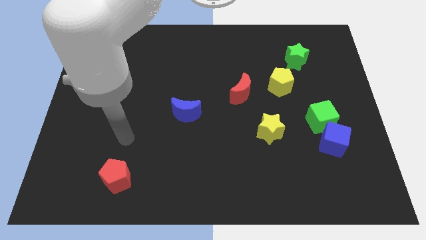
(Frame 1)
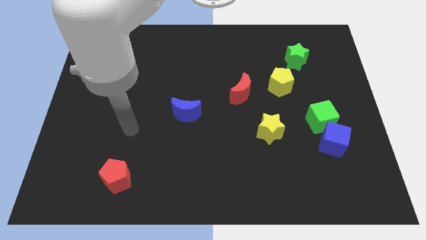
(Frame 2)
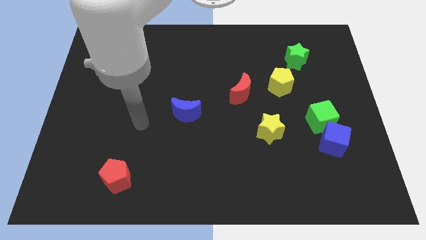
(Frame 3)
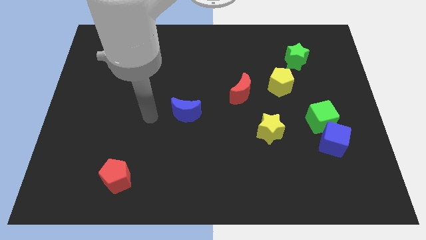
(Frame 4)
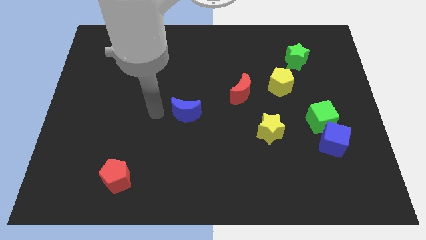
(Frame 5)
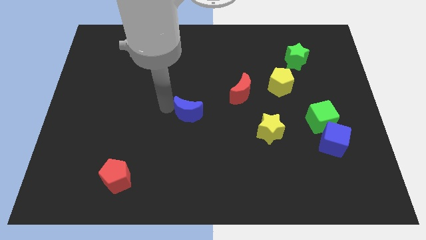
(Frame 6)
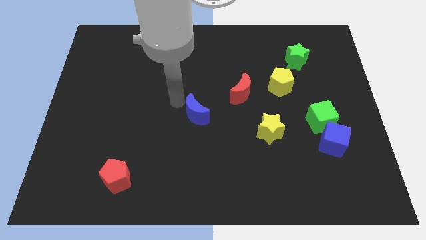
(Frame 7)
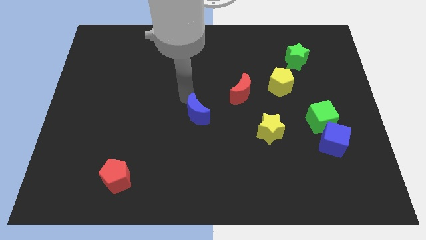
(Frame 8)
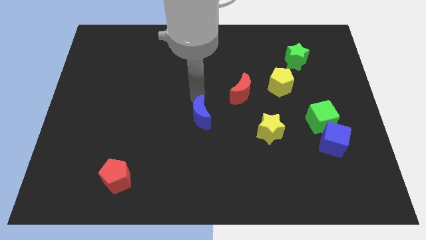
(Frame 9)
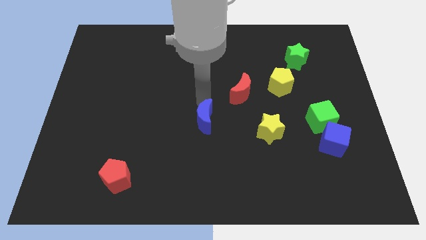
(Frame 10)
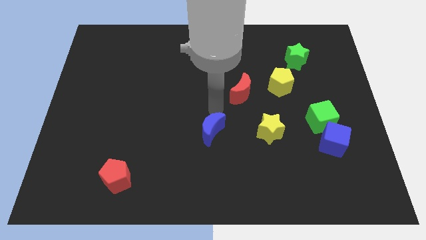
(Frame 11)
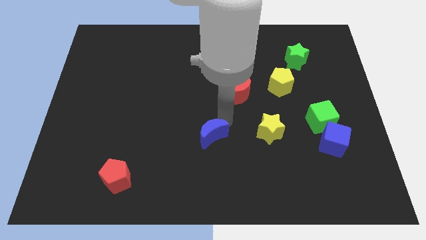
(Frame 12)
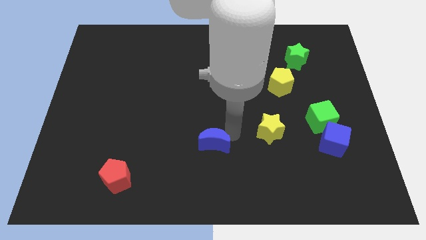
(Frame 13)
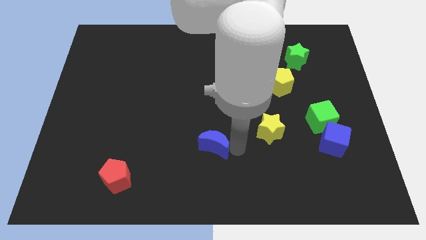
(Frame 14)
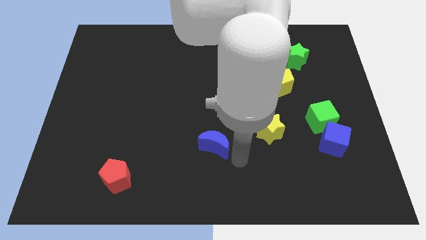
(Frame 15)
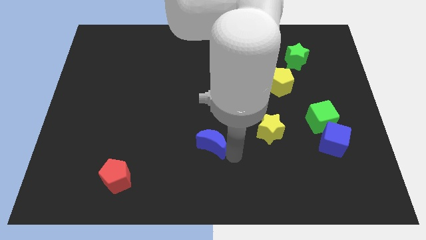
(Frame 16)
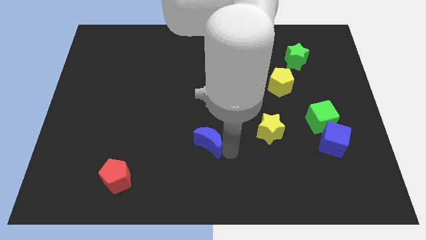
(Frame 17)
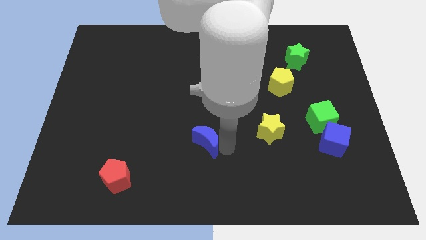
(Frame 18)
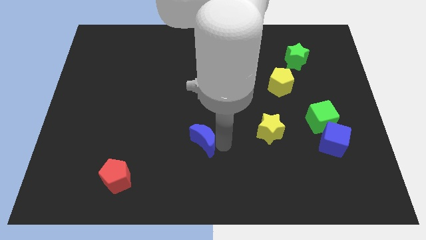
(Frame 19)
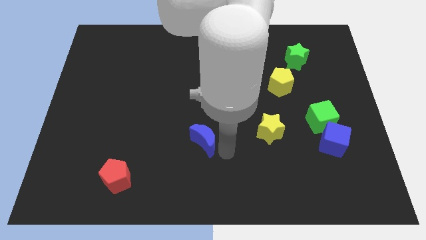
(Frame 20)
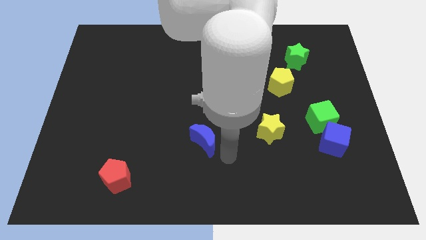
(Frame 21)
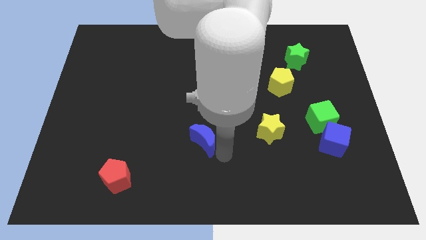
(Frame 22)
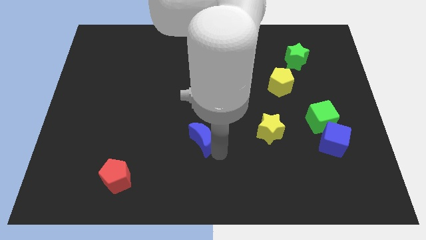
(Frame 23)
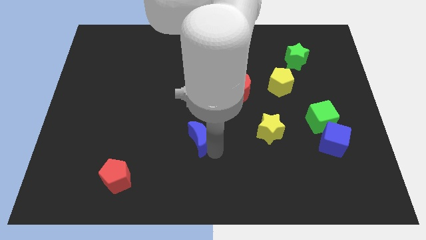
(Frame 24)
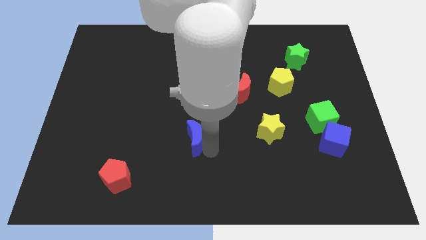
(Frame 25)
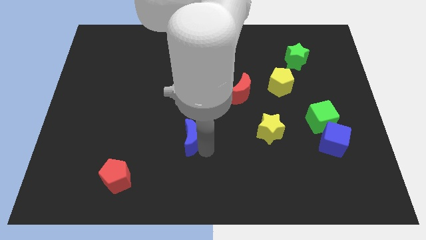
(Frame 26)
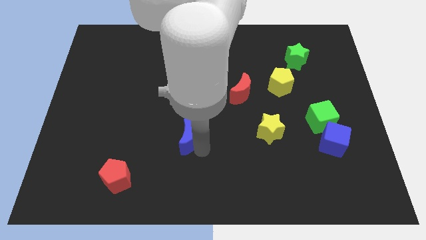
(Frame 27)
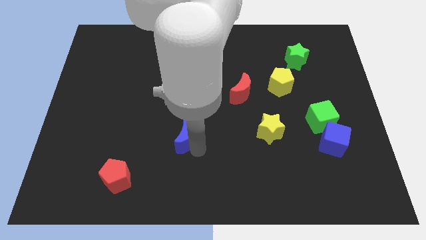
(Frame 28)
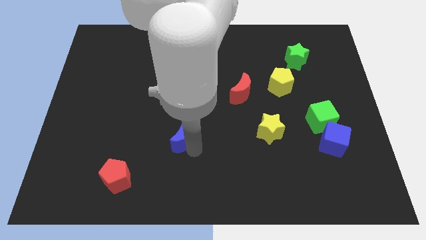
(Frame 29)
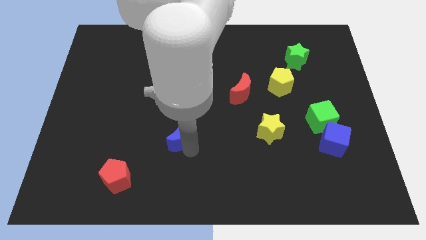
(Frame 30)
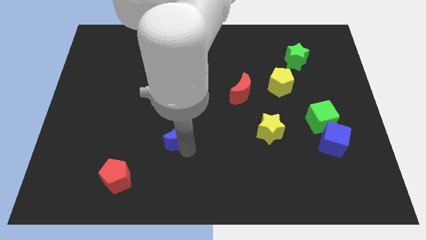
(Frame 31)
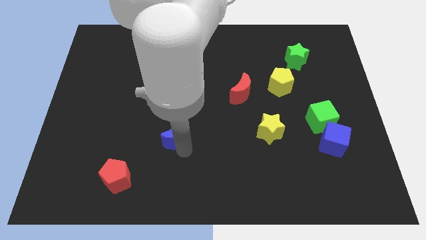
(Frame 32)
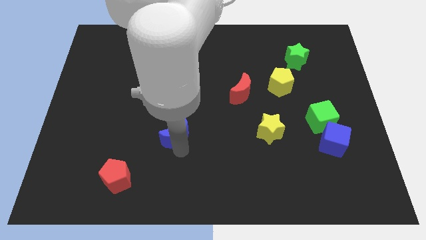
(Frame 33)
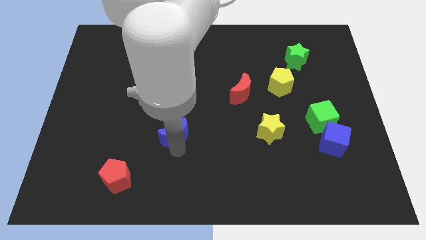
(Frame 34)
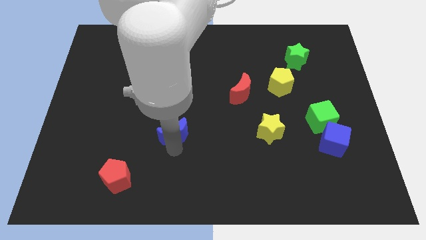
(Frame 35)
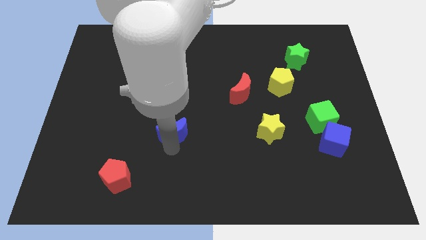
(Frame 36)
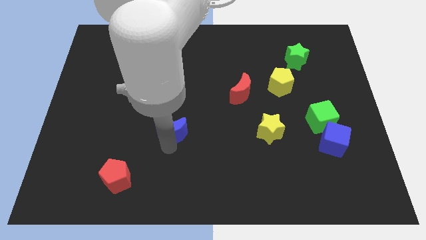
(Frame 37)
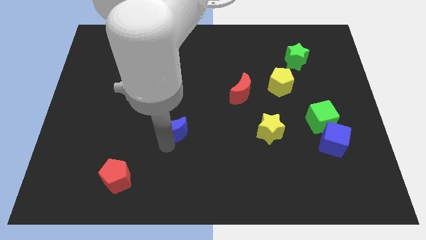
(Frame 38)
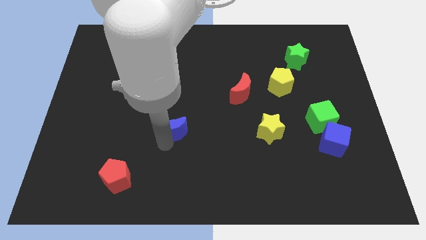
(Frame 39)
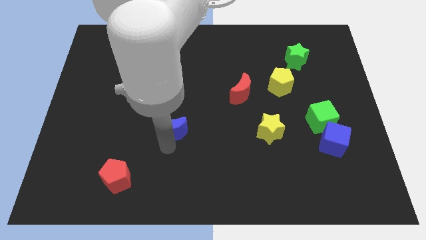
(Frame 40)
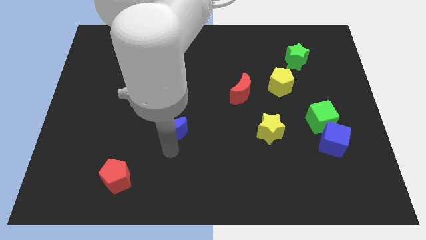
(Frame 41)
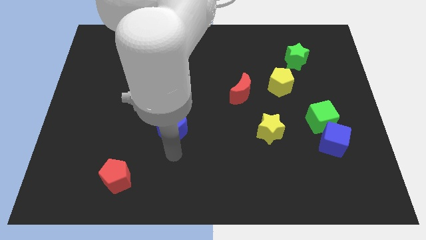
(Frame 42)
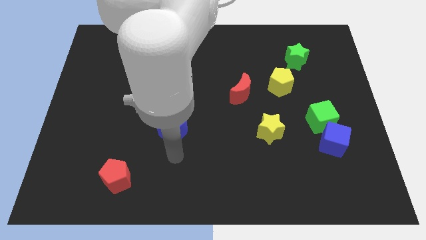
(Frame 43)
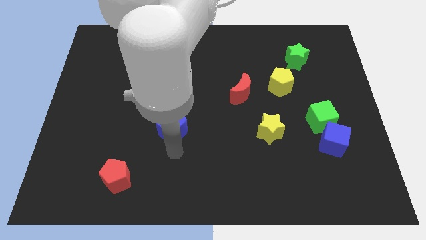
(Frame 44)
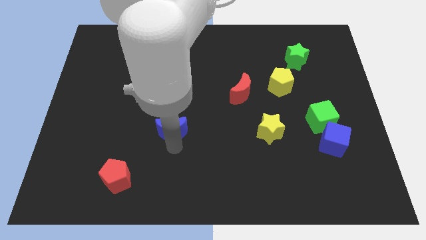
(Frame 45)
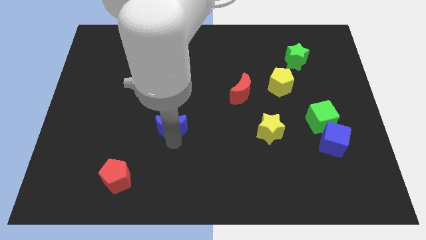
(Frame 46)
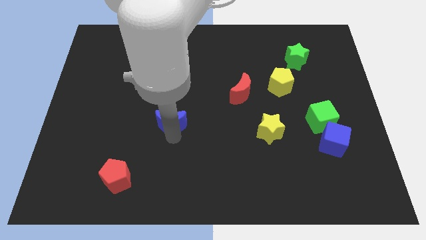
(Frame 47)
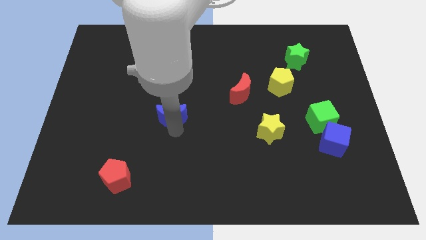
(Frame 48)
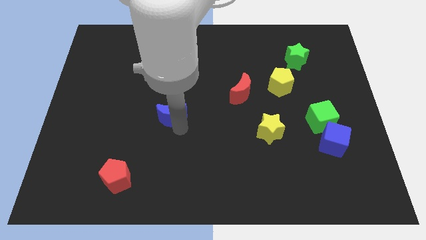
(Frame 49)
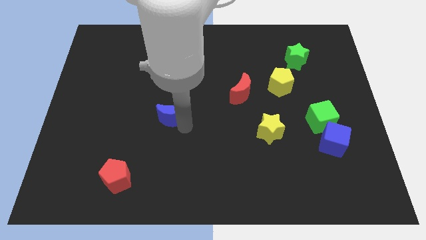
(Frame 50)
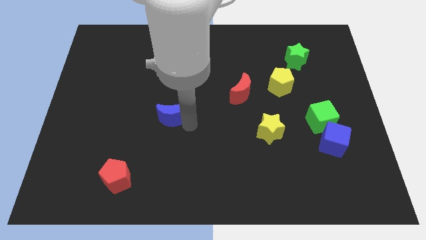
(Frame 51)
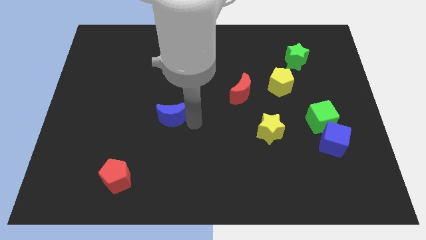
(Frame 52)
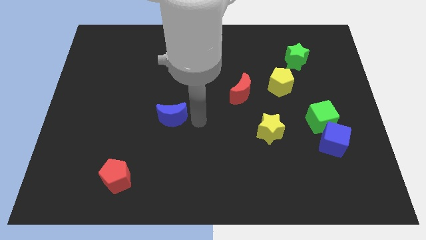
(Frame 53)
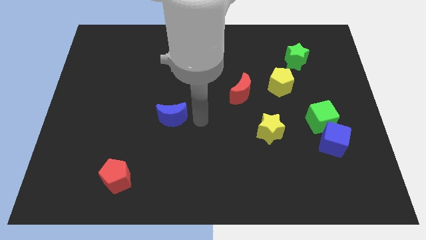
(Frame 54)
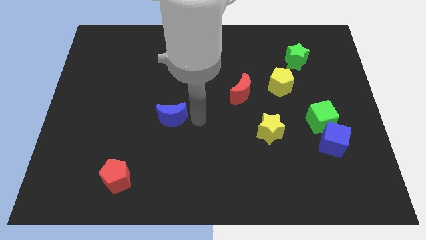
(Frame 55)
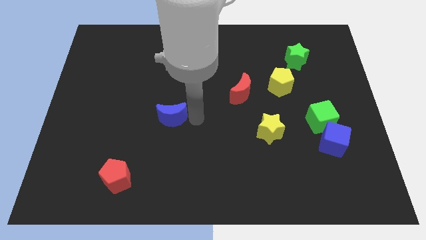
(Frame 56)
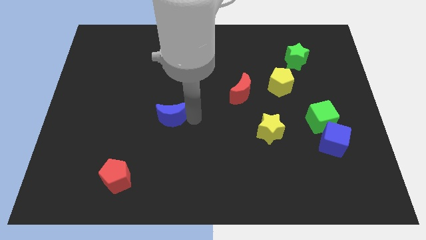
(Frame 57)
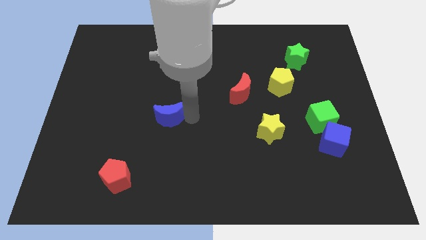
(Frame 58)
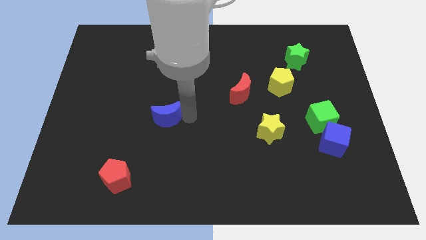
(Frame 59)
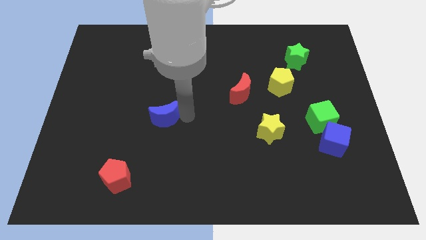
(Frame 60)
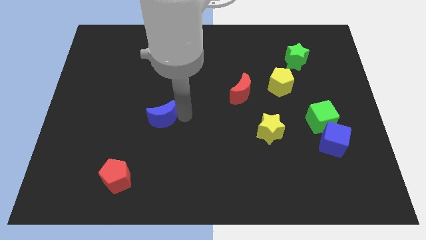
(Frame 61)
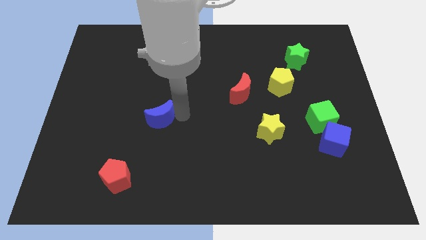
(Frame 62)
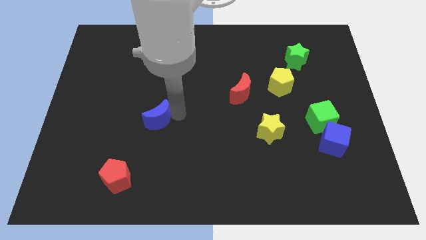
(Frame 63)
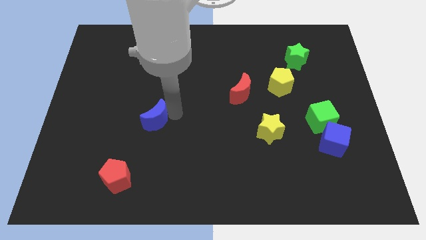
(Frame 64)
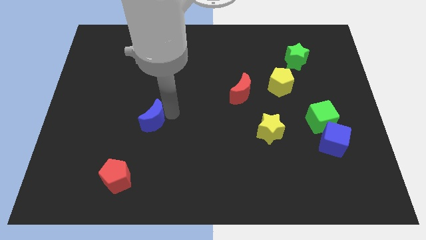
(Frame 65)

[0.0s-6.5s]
move the blue moon a little left

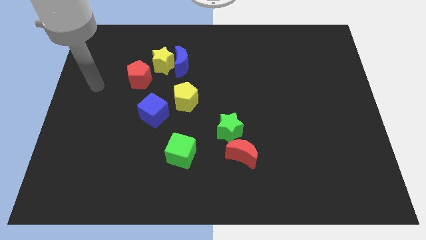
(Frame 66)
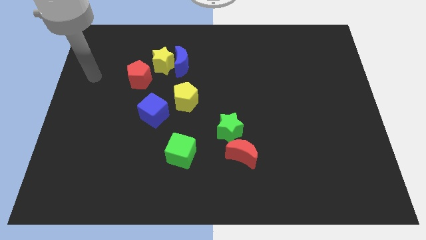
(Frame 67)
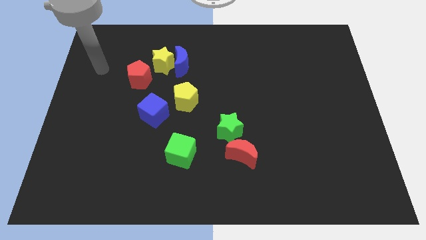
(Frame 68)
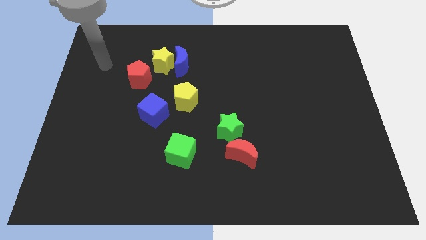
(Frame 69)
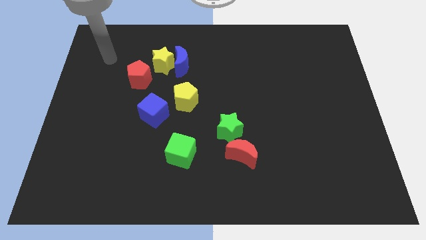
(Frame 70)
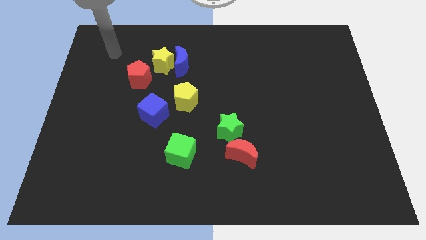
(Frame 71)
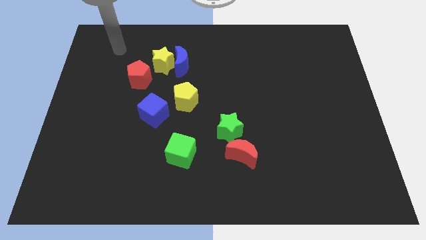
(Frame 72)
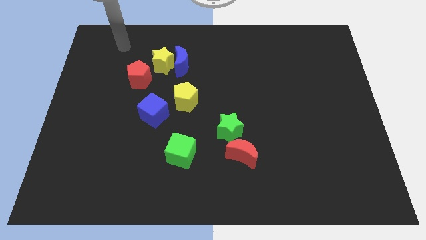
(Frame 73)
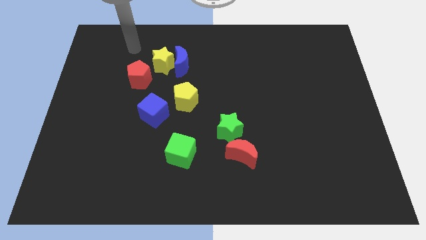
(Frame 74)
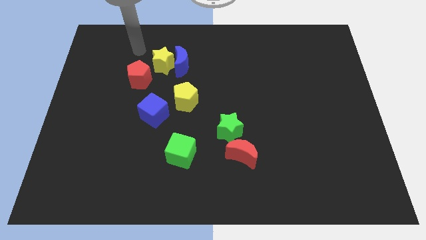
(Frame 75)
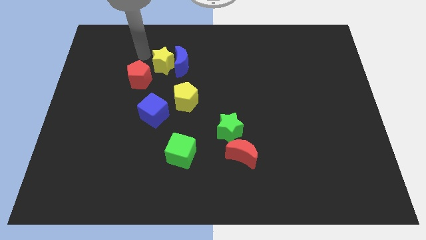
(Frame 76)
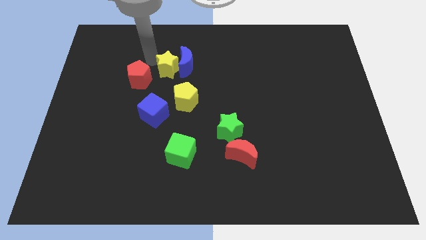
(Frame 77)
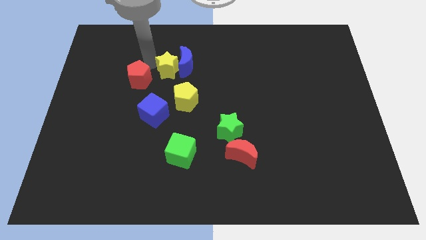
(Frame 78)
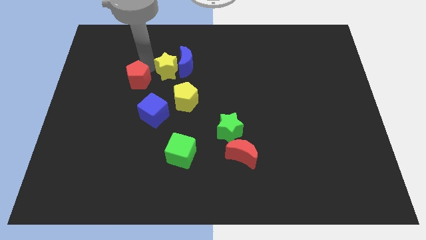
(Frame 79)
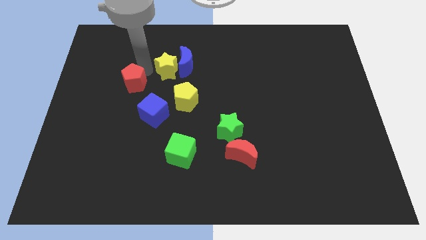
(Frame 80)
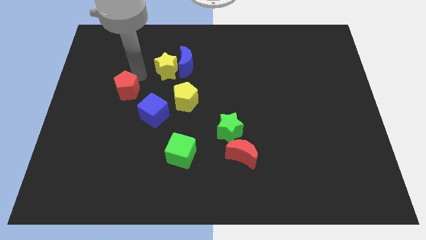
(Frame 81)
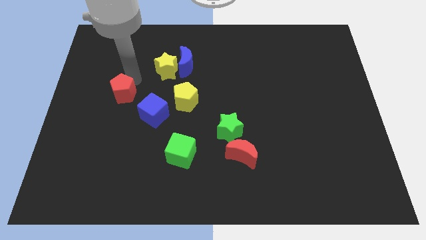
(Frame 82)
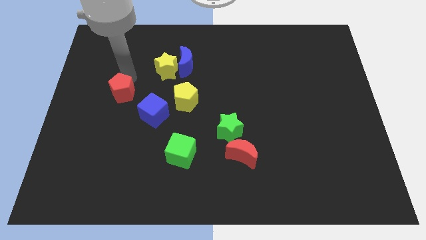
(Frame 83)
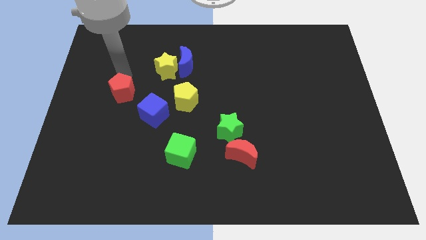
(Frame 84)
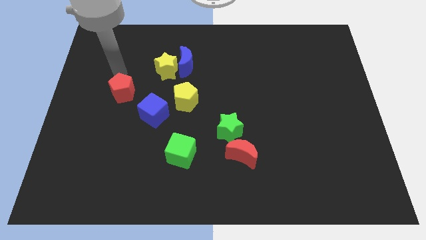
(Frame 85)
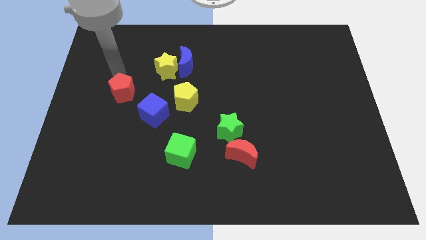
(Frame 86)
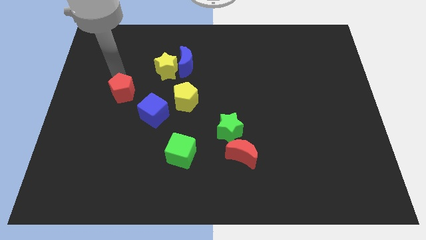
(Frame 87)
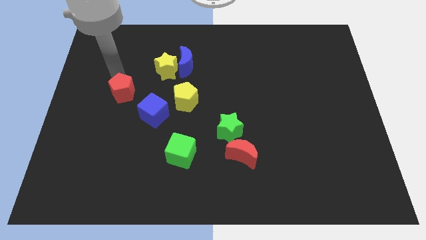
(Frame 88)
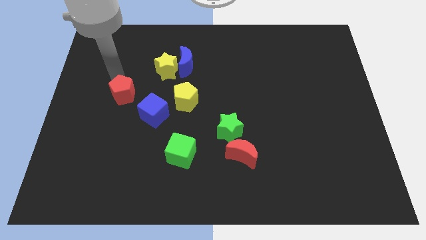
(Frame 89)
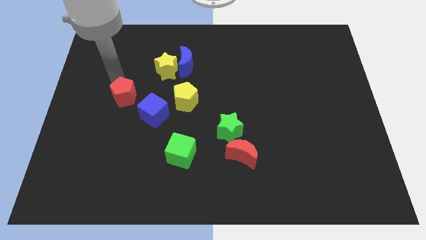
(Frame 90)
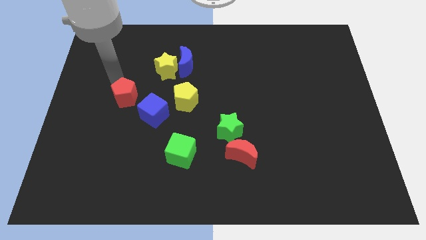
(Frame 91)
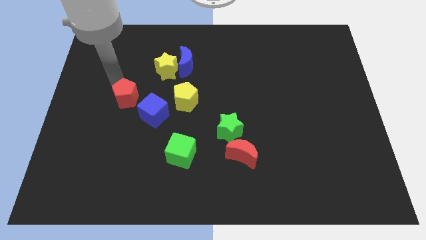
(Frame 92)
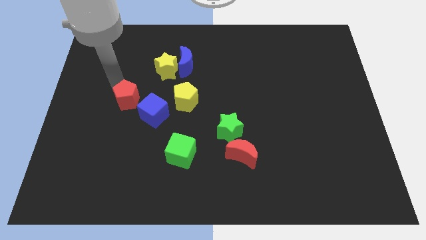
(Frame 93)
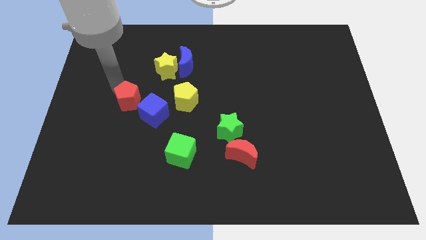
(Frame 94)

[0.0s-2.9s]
move the red pentagon a little downwards
